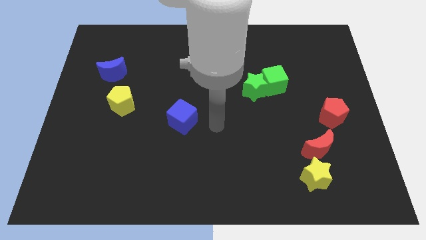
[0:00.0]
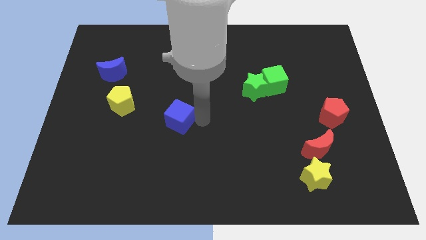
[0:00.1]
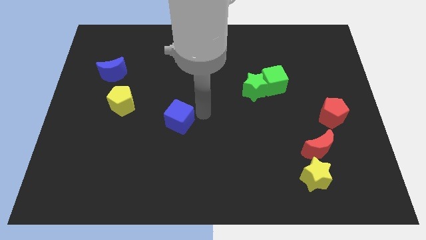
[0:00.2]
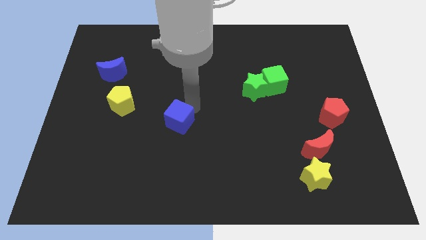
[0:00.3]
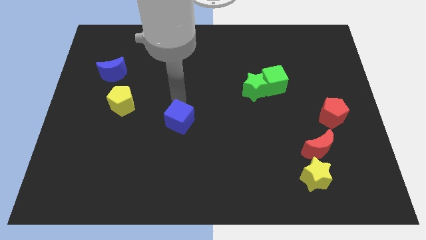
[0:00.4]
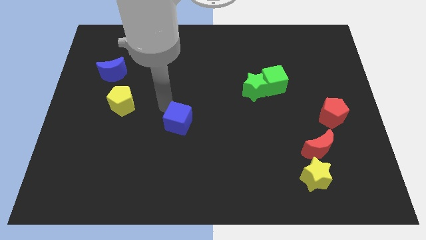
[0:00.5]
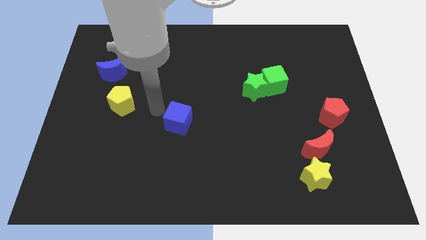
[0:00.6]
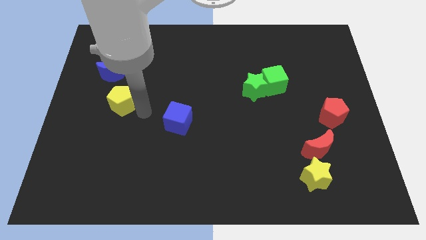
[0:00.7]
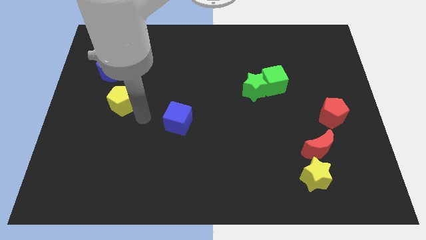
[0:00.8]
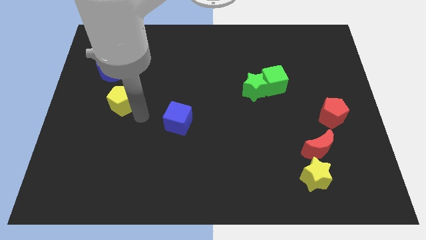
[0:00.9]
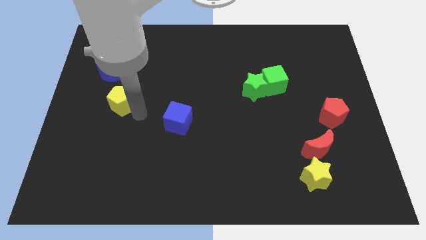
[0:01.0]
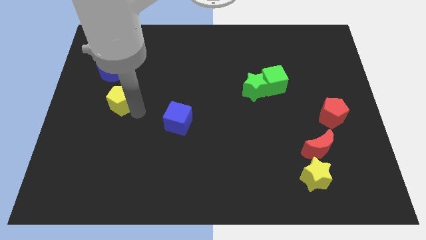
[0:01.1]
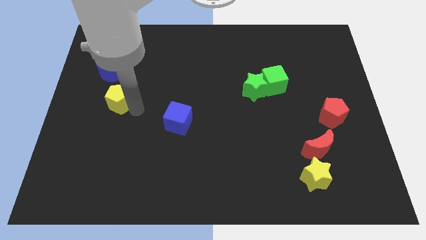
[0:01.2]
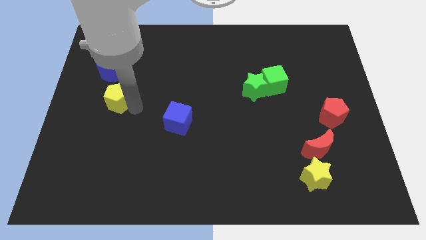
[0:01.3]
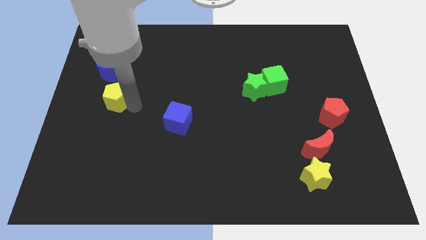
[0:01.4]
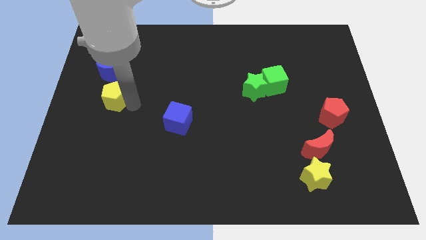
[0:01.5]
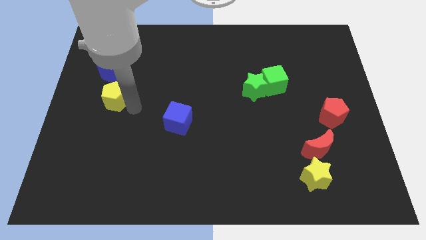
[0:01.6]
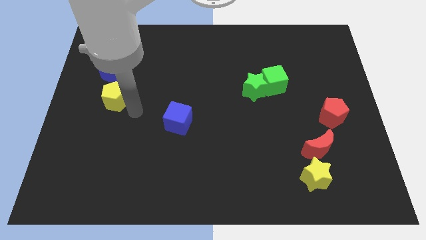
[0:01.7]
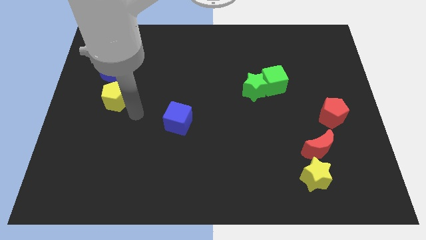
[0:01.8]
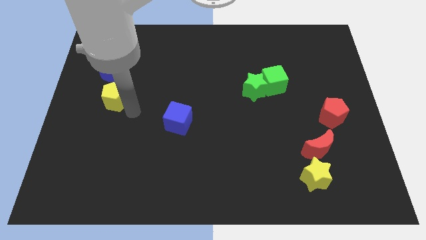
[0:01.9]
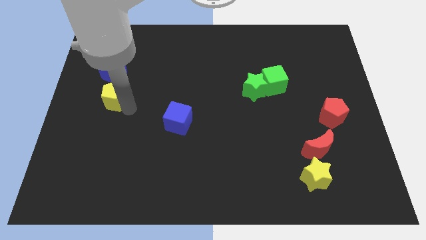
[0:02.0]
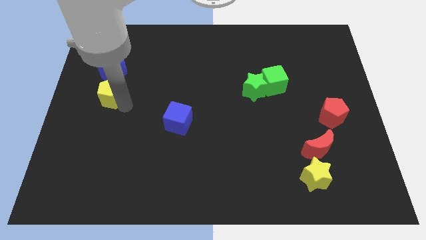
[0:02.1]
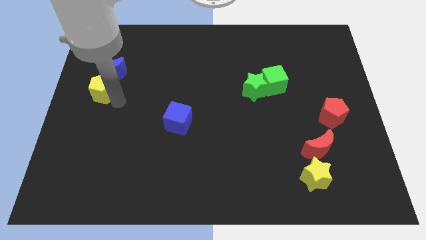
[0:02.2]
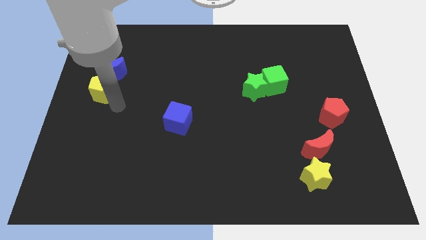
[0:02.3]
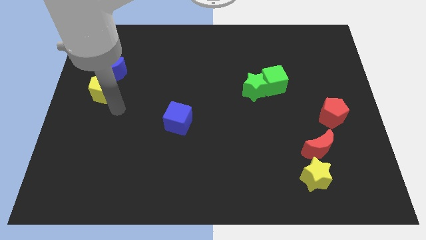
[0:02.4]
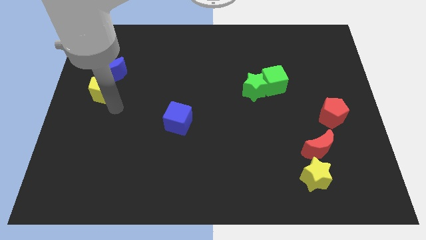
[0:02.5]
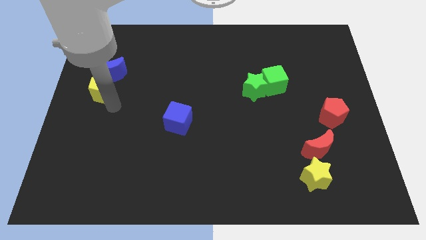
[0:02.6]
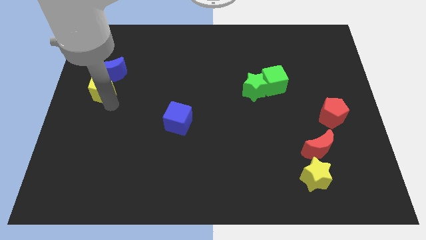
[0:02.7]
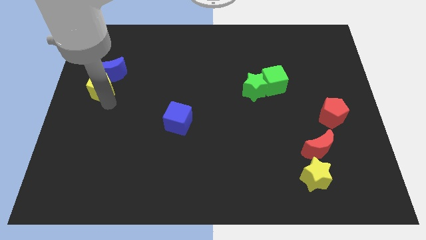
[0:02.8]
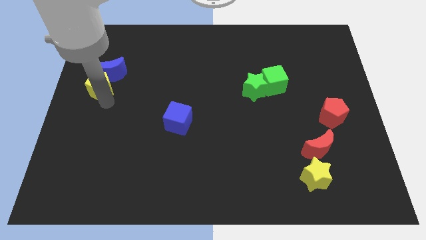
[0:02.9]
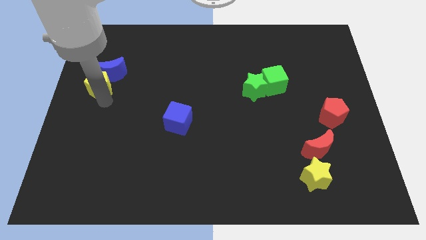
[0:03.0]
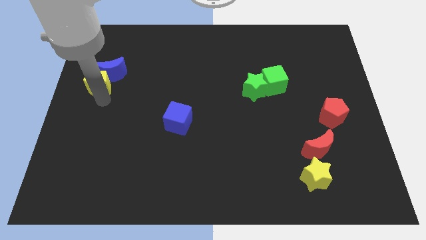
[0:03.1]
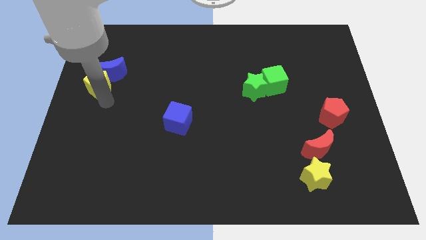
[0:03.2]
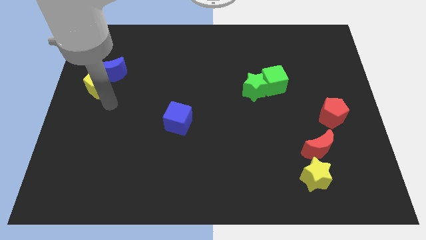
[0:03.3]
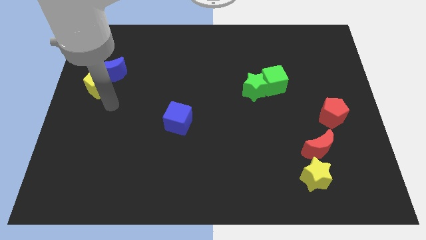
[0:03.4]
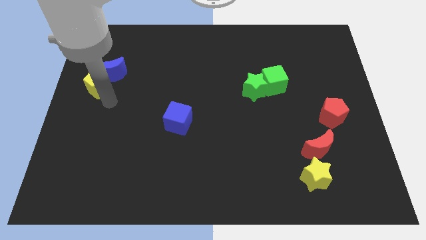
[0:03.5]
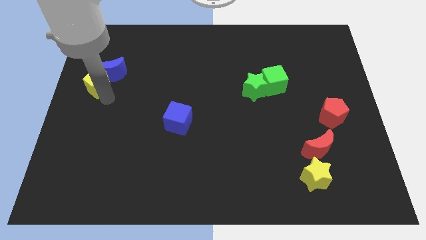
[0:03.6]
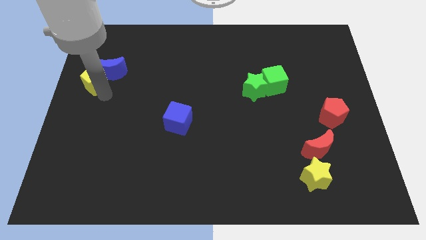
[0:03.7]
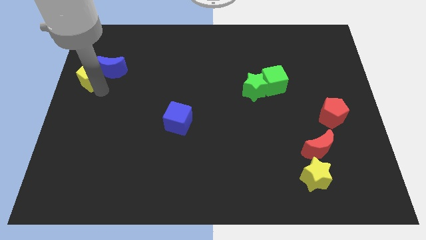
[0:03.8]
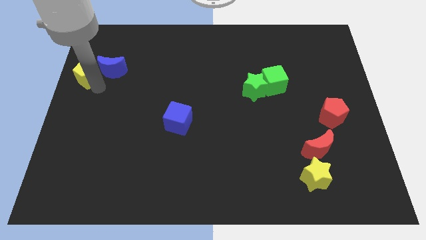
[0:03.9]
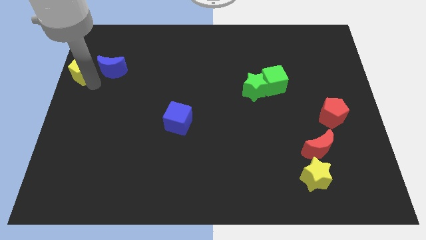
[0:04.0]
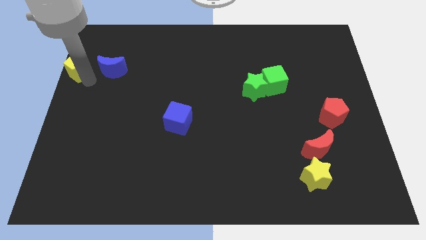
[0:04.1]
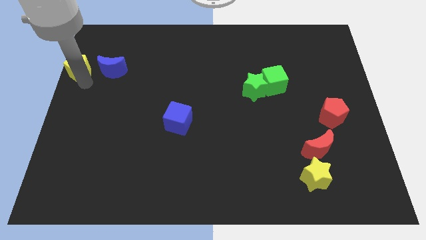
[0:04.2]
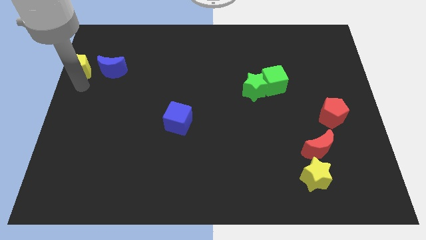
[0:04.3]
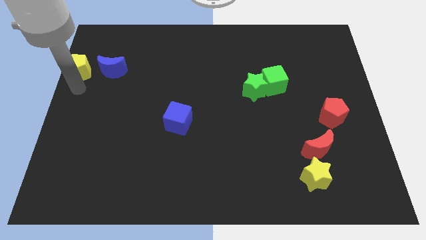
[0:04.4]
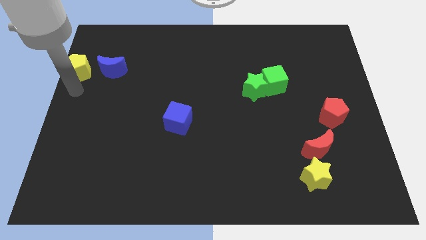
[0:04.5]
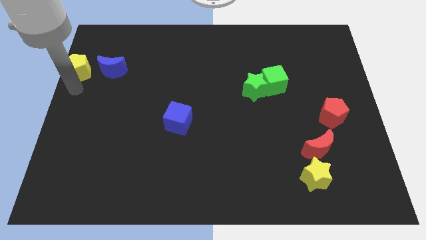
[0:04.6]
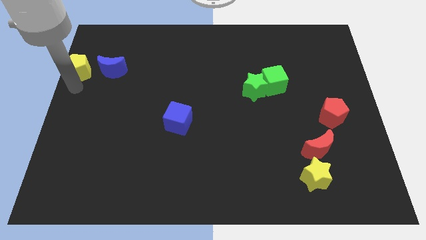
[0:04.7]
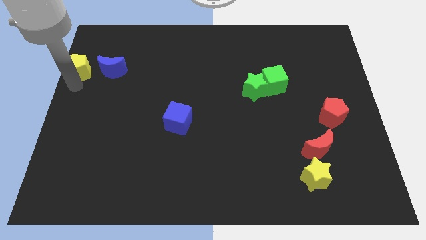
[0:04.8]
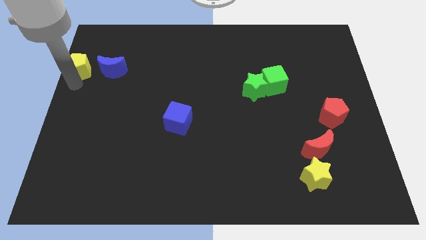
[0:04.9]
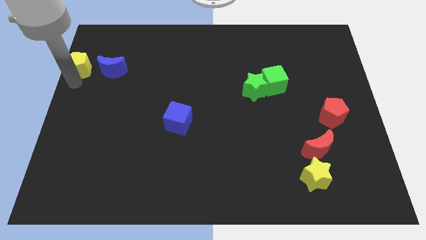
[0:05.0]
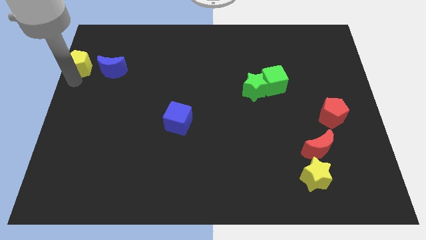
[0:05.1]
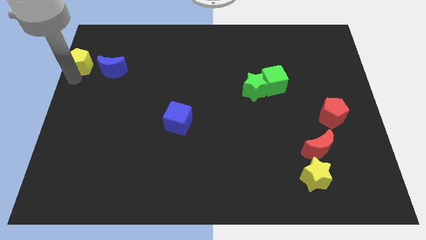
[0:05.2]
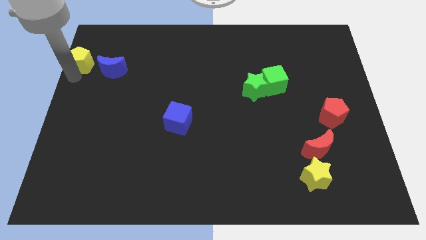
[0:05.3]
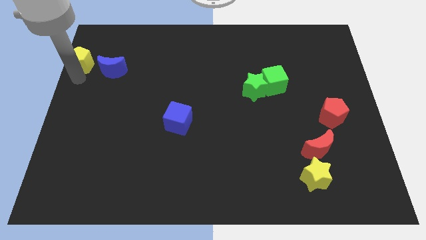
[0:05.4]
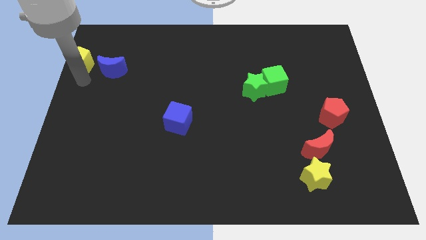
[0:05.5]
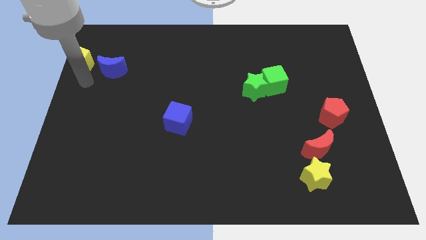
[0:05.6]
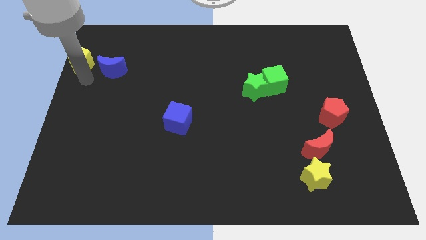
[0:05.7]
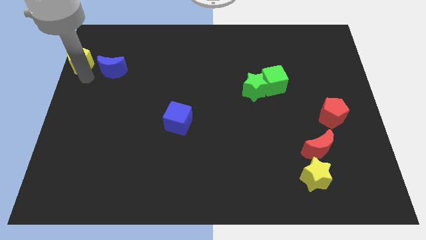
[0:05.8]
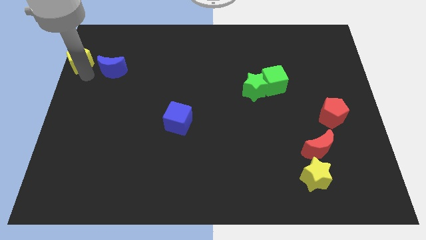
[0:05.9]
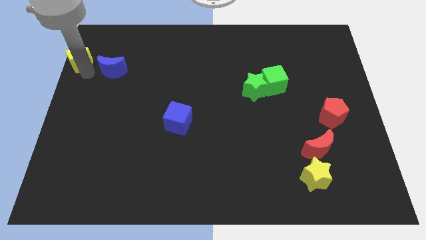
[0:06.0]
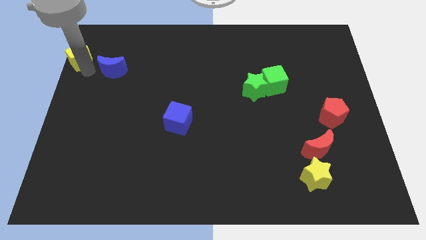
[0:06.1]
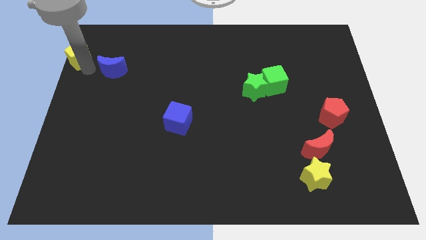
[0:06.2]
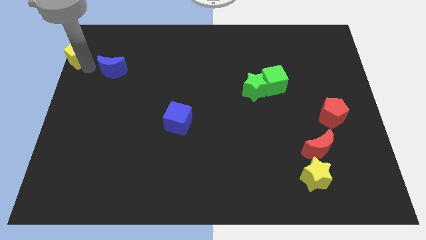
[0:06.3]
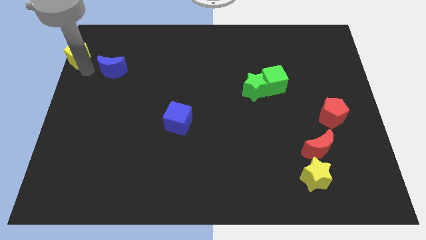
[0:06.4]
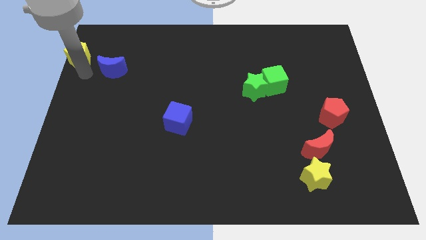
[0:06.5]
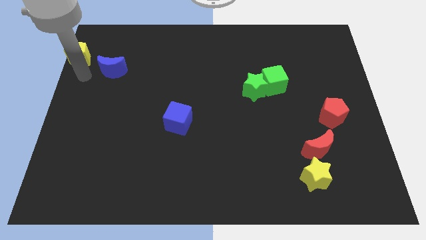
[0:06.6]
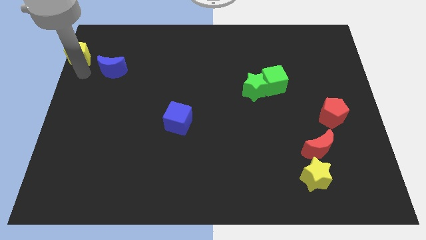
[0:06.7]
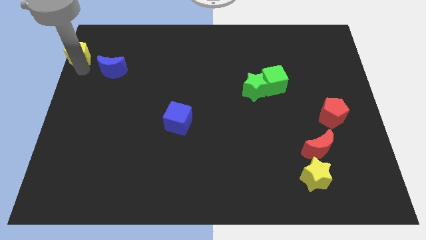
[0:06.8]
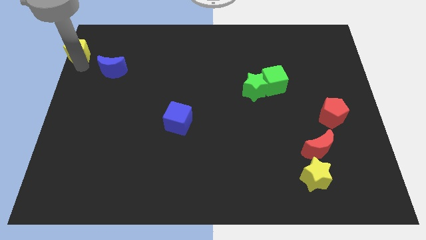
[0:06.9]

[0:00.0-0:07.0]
put the yellow pentagon to the top left of the board
